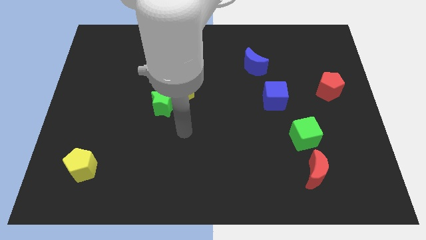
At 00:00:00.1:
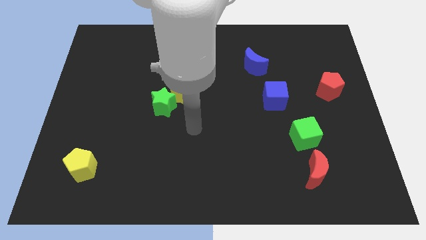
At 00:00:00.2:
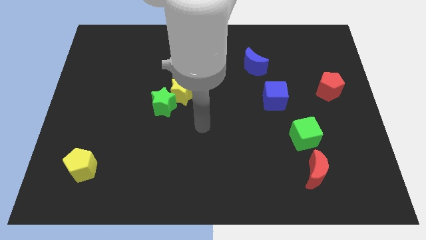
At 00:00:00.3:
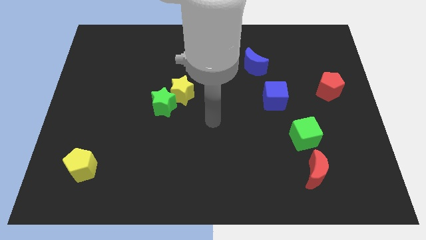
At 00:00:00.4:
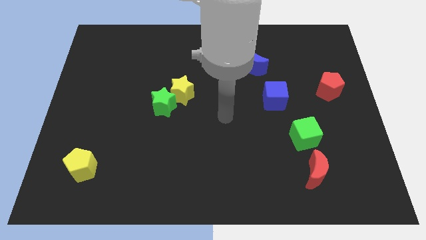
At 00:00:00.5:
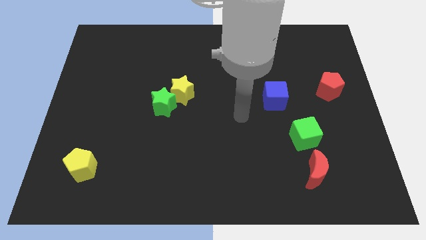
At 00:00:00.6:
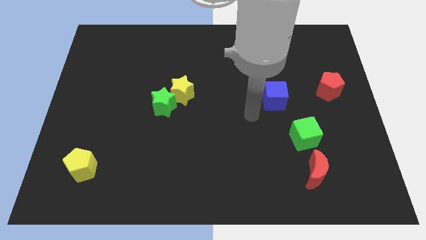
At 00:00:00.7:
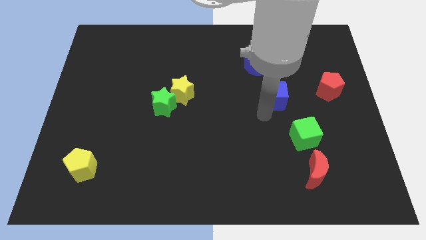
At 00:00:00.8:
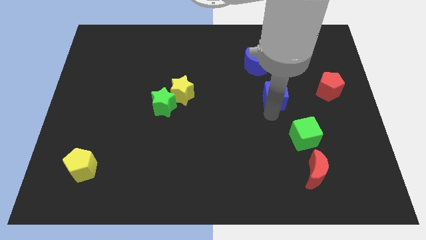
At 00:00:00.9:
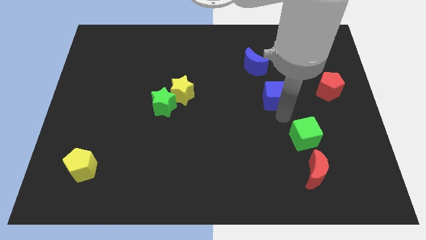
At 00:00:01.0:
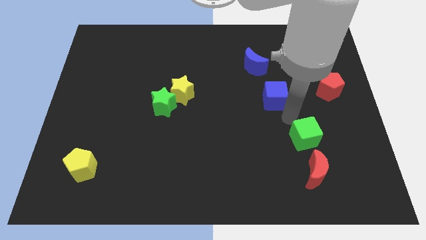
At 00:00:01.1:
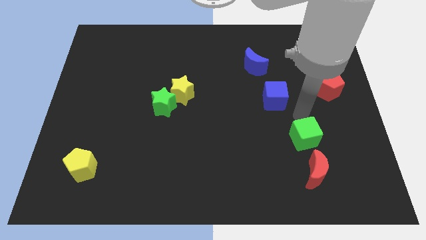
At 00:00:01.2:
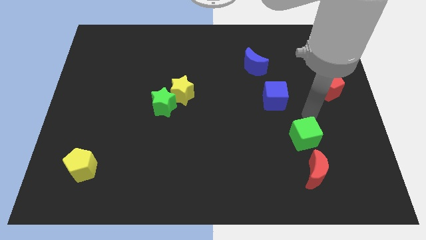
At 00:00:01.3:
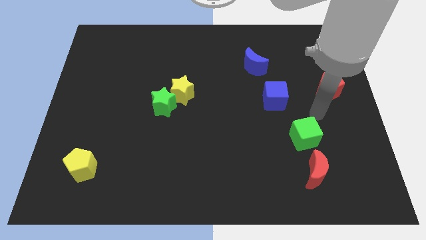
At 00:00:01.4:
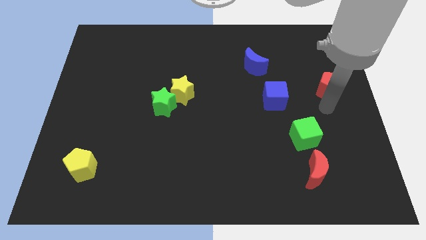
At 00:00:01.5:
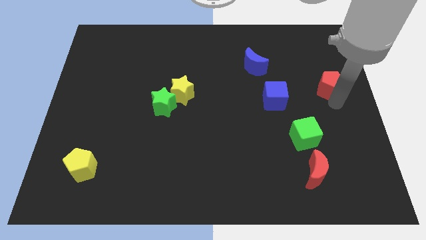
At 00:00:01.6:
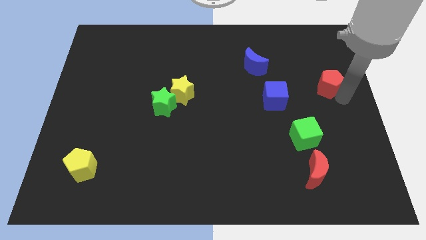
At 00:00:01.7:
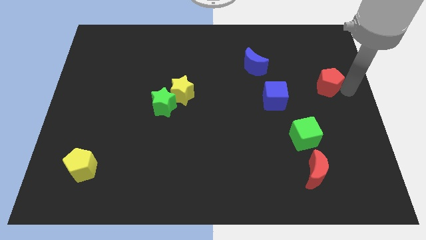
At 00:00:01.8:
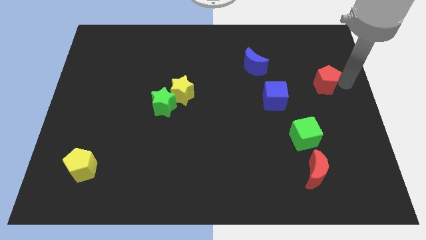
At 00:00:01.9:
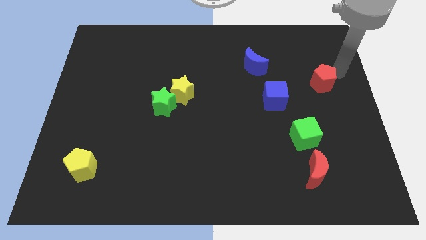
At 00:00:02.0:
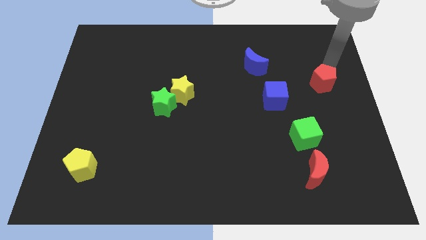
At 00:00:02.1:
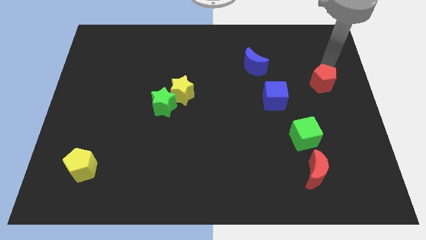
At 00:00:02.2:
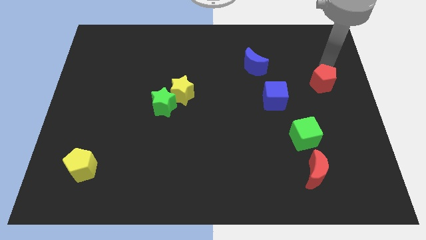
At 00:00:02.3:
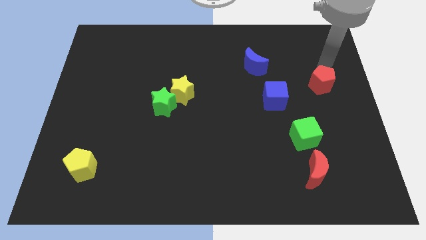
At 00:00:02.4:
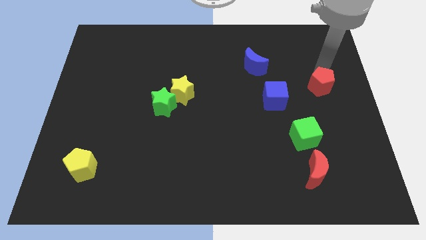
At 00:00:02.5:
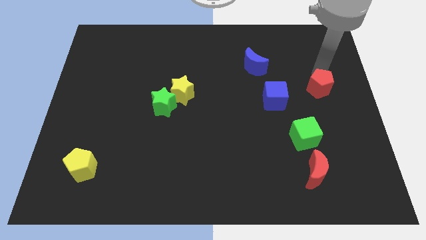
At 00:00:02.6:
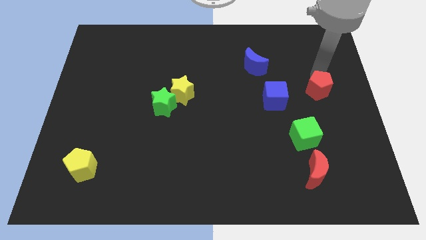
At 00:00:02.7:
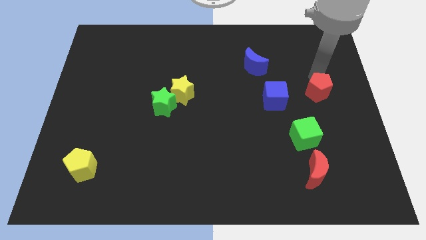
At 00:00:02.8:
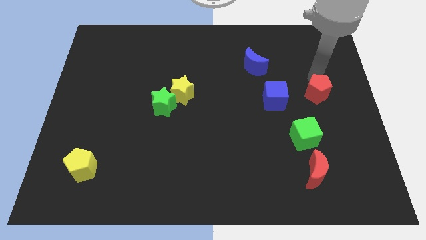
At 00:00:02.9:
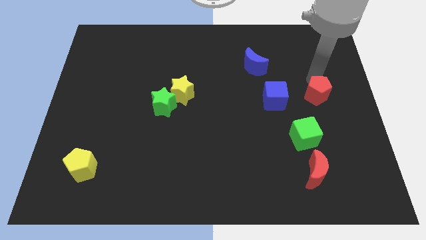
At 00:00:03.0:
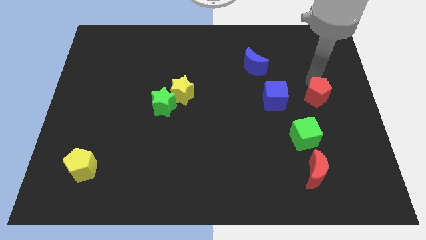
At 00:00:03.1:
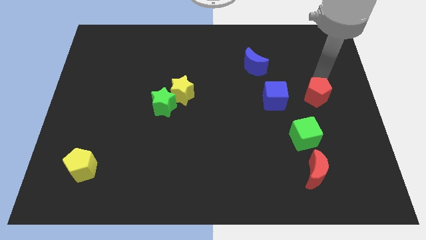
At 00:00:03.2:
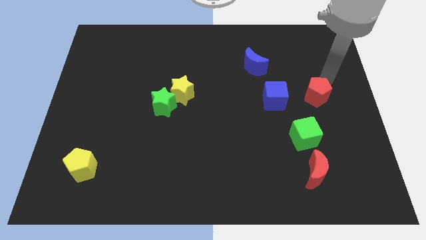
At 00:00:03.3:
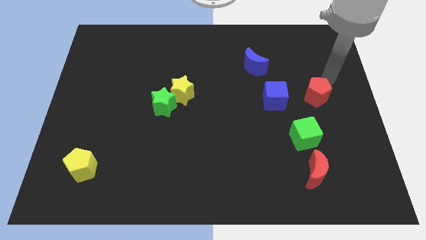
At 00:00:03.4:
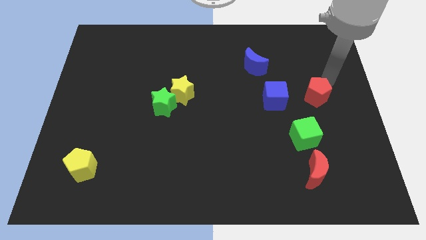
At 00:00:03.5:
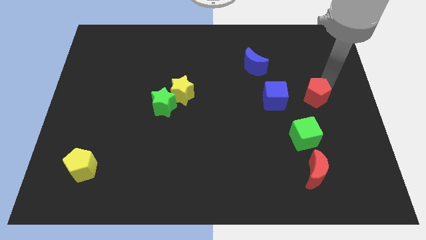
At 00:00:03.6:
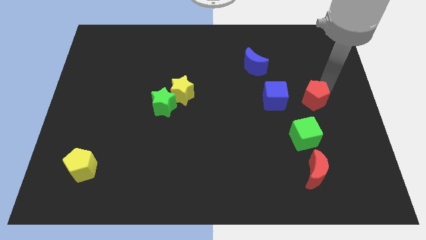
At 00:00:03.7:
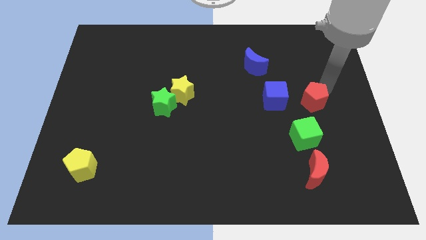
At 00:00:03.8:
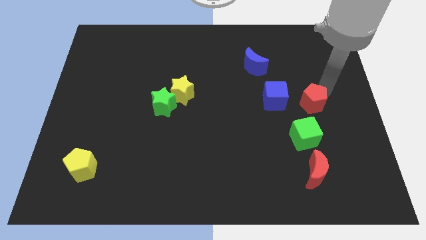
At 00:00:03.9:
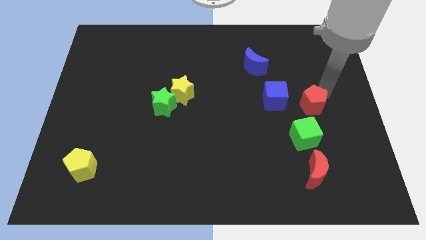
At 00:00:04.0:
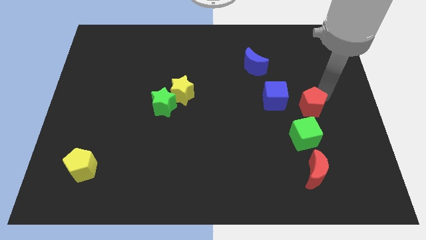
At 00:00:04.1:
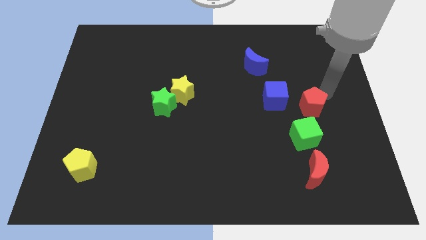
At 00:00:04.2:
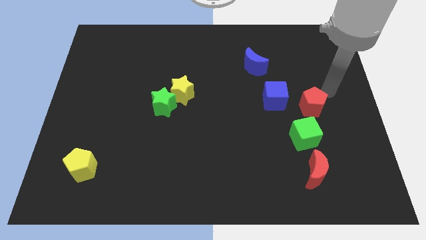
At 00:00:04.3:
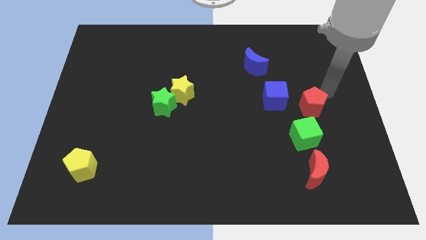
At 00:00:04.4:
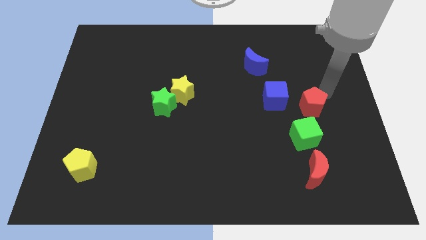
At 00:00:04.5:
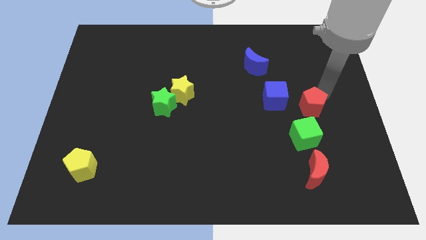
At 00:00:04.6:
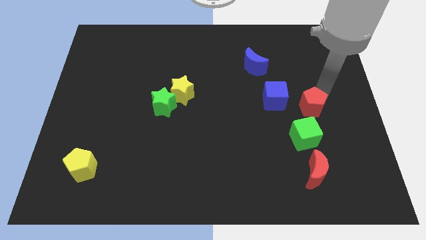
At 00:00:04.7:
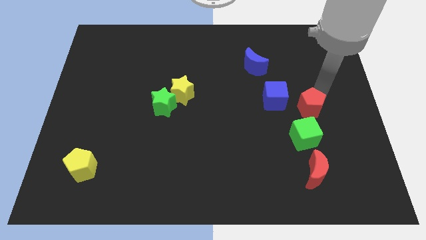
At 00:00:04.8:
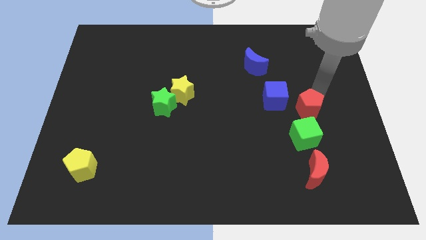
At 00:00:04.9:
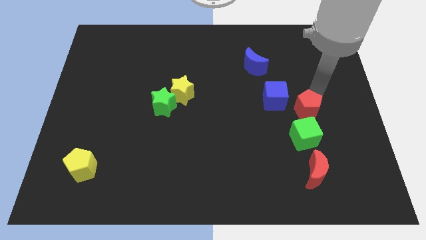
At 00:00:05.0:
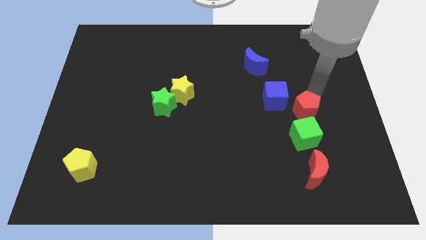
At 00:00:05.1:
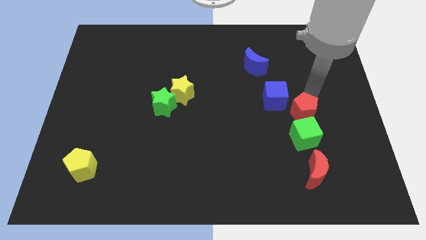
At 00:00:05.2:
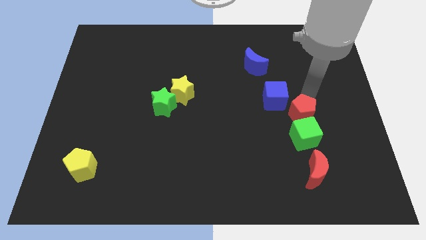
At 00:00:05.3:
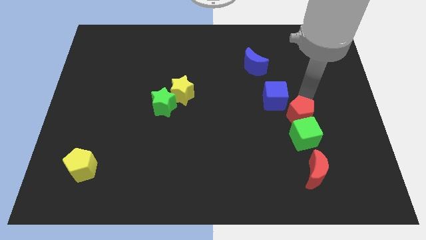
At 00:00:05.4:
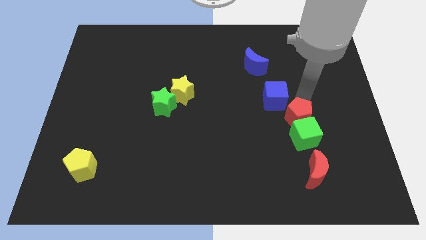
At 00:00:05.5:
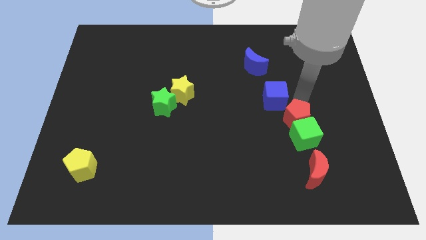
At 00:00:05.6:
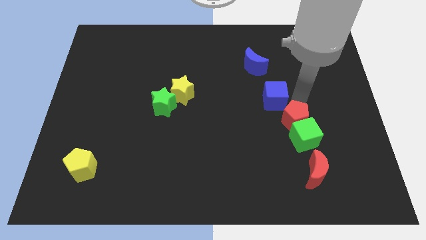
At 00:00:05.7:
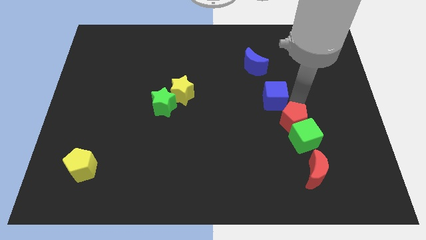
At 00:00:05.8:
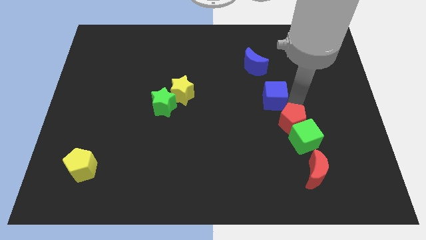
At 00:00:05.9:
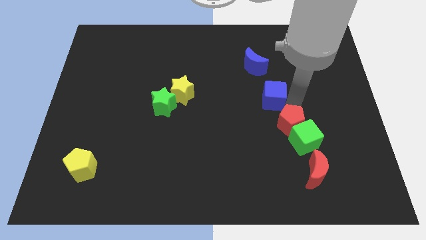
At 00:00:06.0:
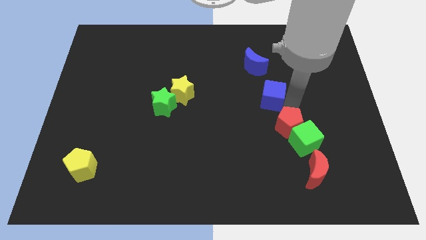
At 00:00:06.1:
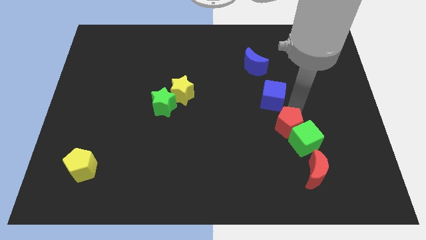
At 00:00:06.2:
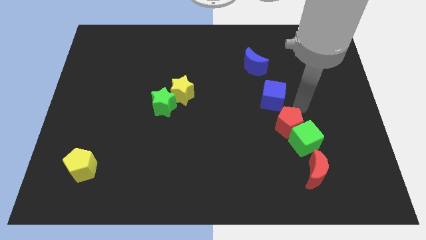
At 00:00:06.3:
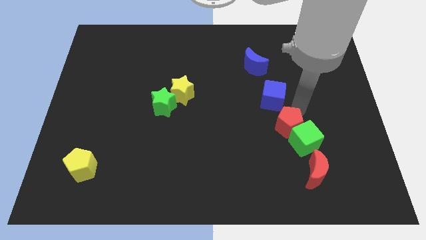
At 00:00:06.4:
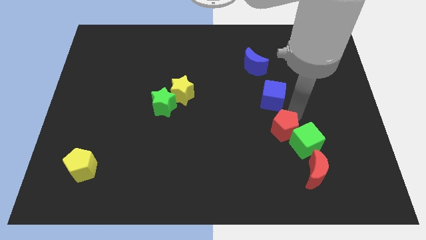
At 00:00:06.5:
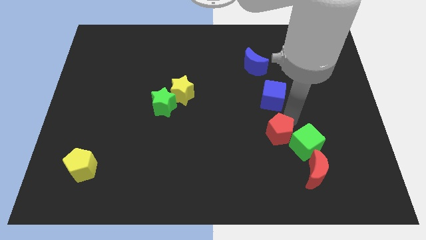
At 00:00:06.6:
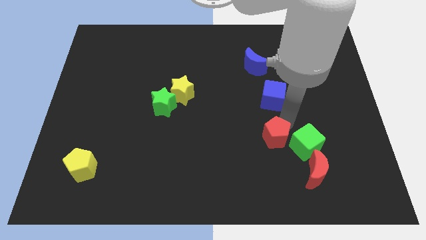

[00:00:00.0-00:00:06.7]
push the red pentagon downwards and left diagonally

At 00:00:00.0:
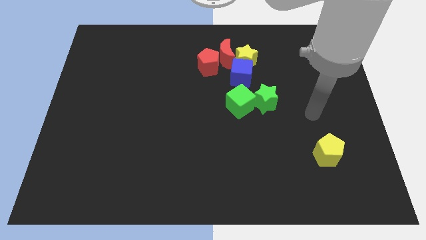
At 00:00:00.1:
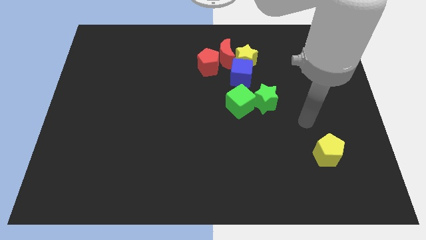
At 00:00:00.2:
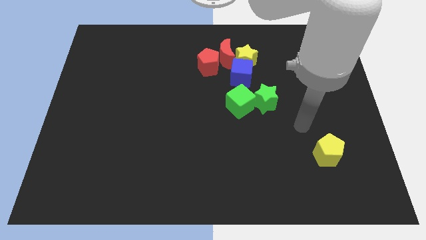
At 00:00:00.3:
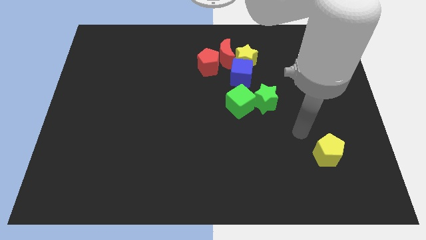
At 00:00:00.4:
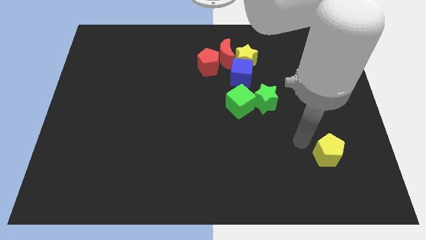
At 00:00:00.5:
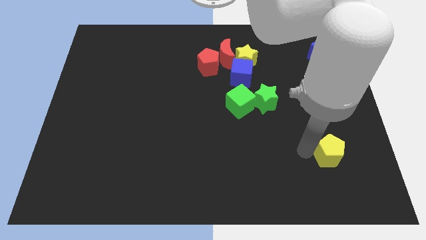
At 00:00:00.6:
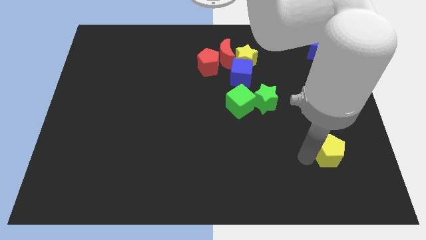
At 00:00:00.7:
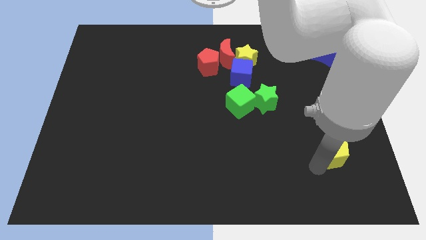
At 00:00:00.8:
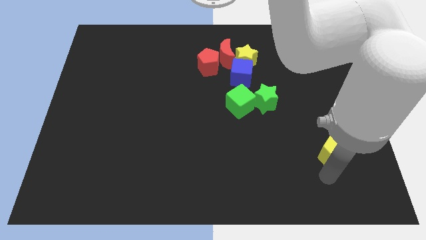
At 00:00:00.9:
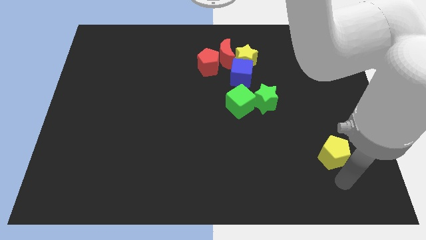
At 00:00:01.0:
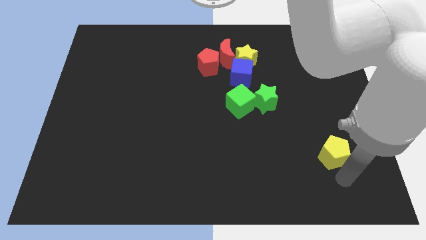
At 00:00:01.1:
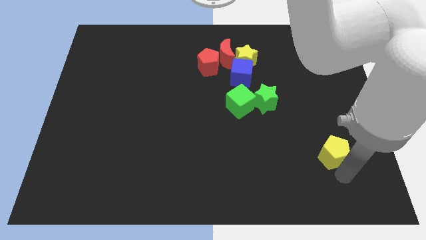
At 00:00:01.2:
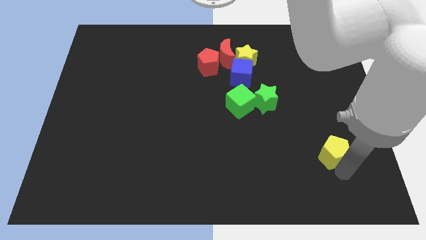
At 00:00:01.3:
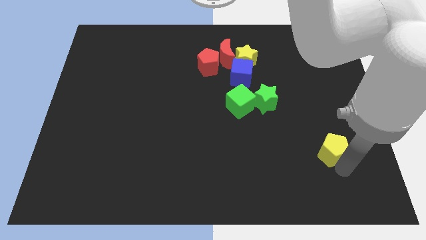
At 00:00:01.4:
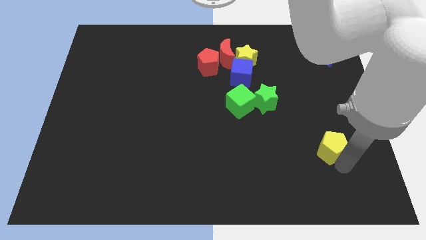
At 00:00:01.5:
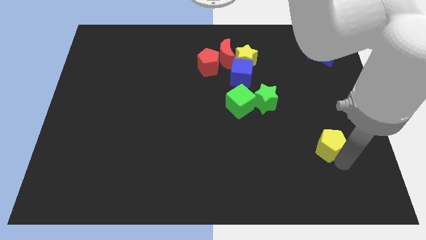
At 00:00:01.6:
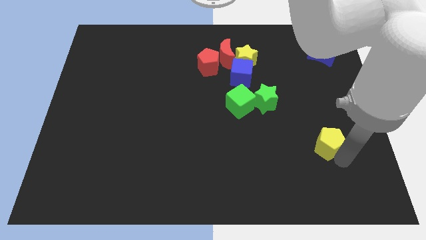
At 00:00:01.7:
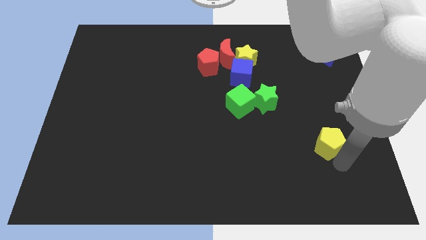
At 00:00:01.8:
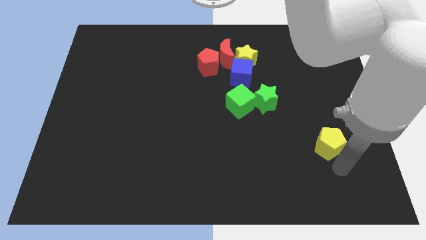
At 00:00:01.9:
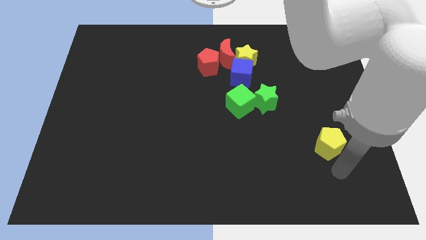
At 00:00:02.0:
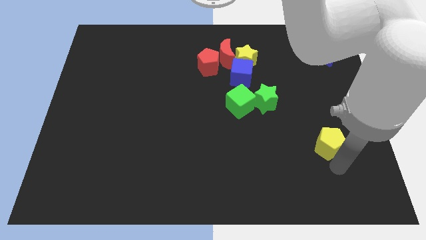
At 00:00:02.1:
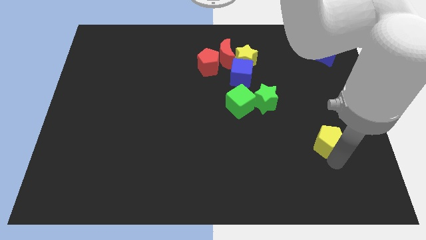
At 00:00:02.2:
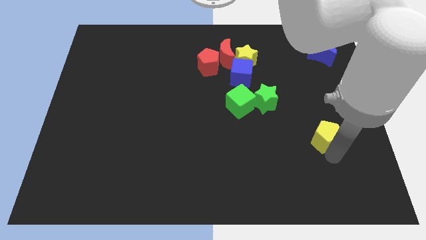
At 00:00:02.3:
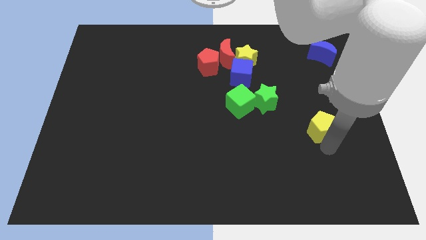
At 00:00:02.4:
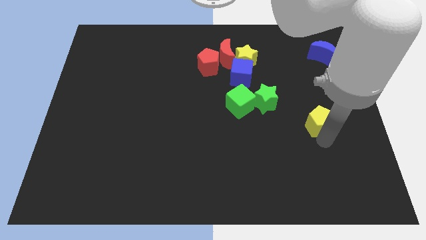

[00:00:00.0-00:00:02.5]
slightly move the yellow pentagon up
